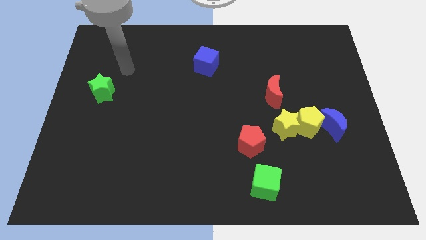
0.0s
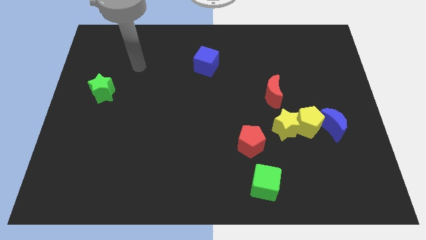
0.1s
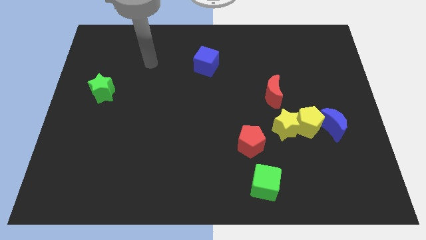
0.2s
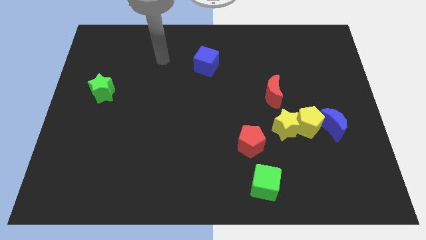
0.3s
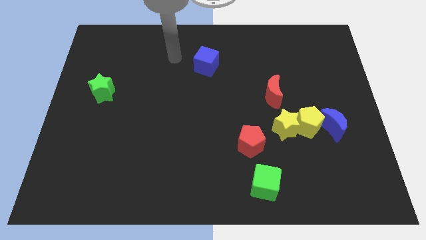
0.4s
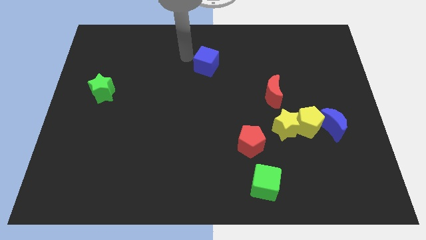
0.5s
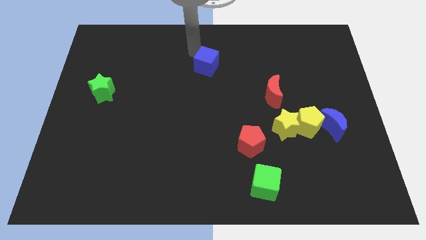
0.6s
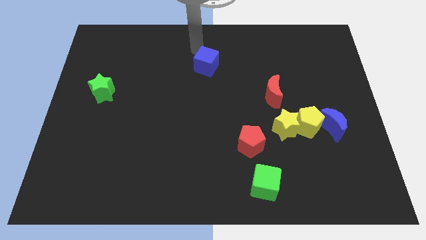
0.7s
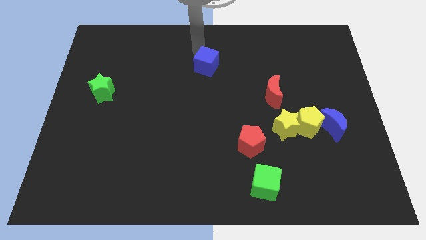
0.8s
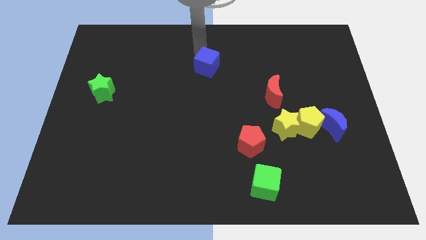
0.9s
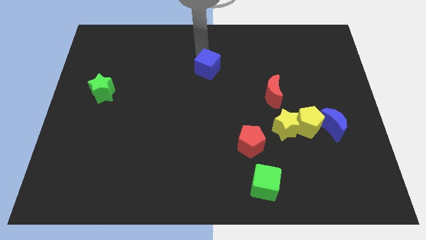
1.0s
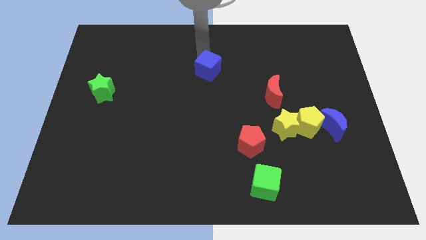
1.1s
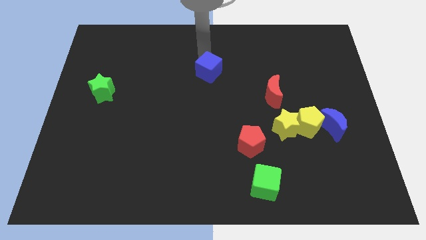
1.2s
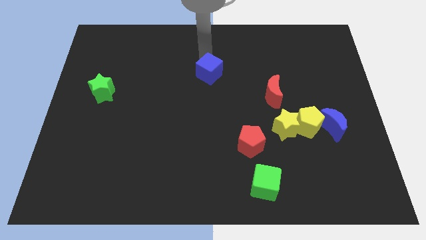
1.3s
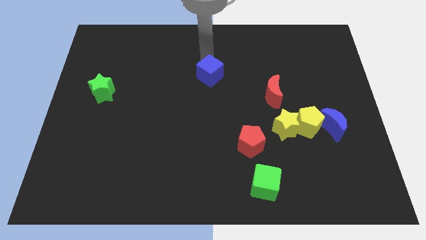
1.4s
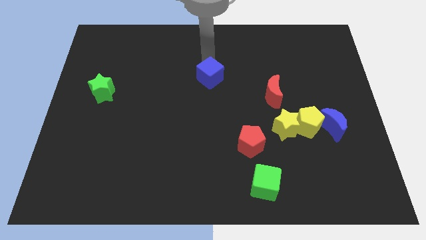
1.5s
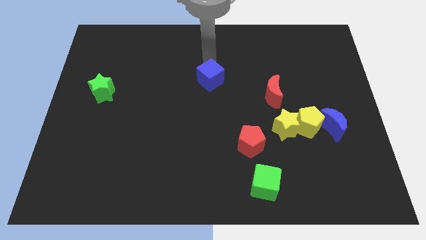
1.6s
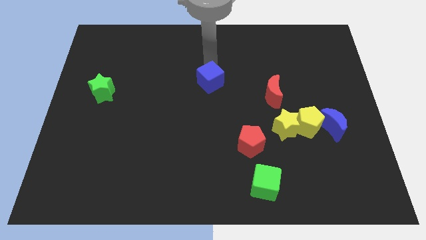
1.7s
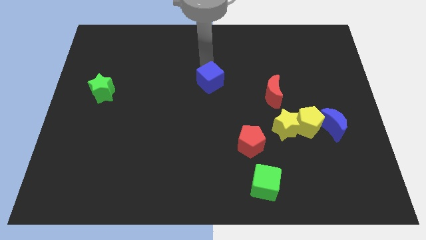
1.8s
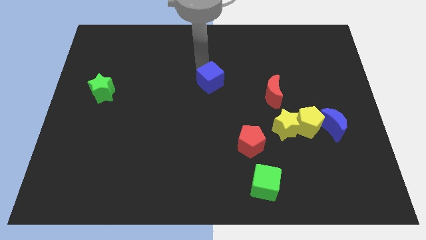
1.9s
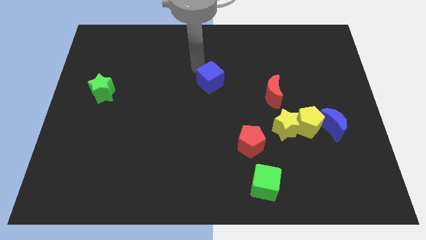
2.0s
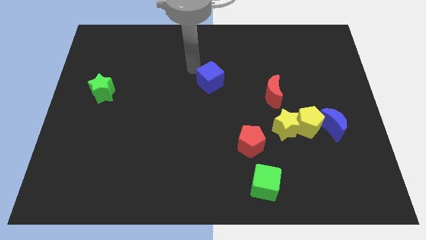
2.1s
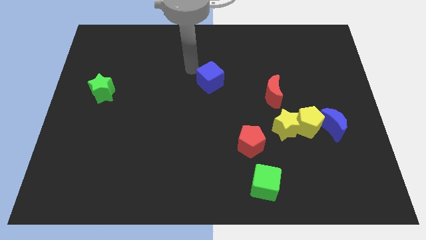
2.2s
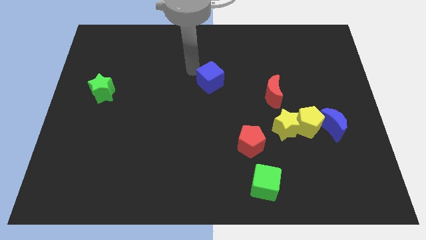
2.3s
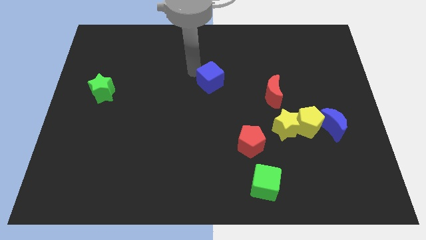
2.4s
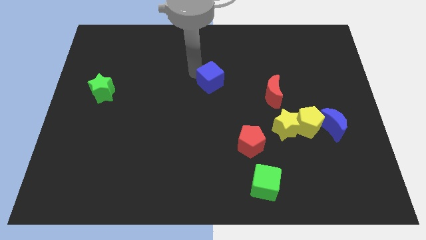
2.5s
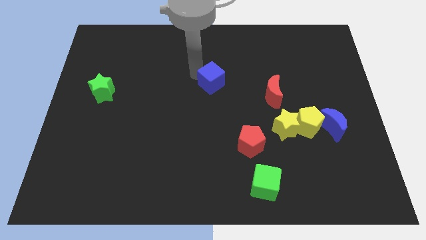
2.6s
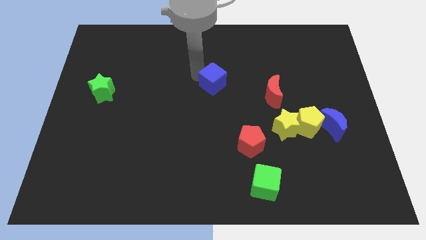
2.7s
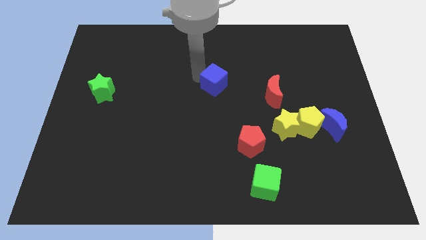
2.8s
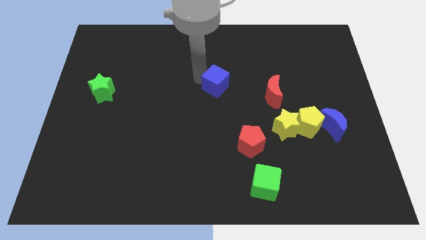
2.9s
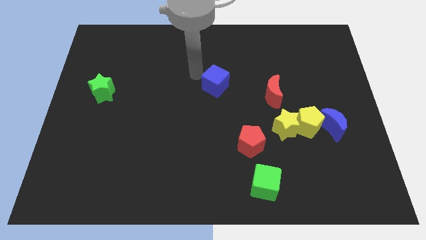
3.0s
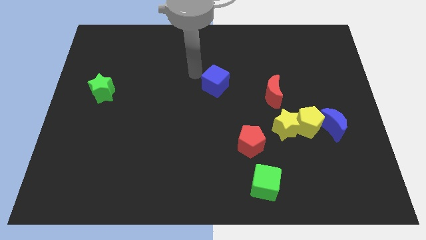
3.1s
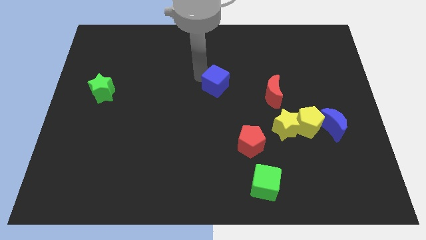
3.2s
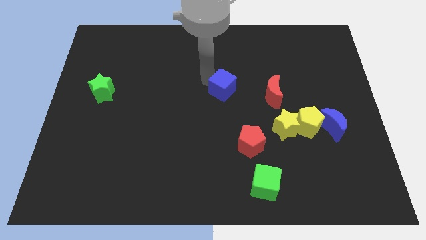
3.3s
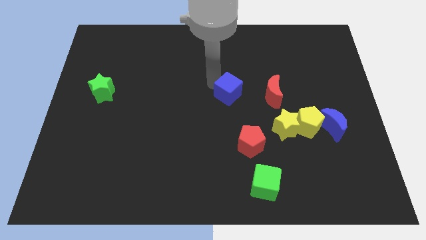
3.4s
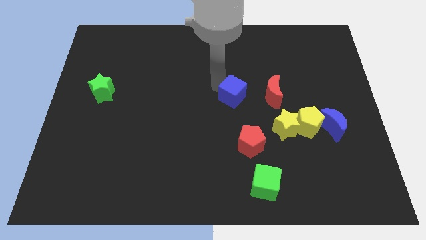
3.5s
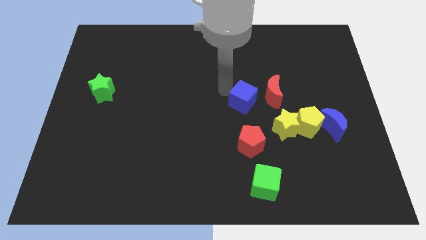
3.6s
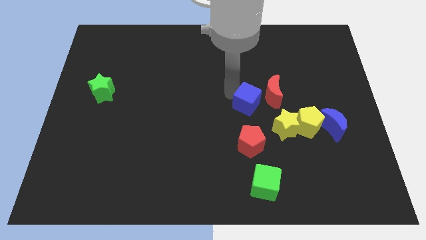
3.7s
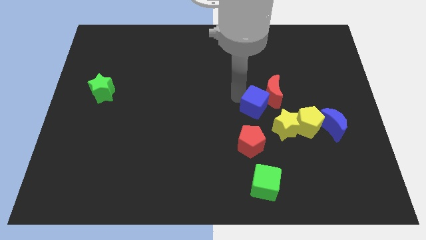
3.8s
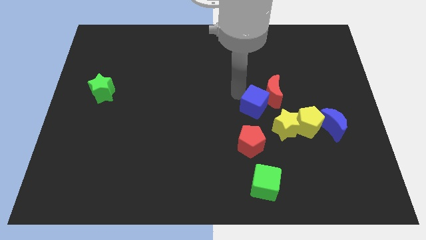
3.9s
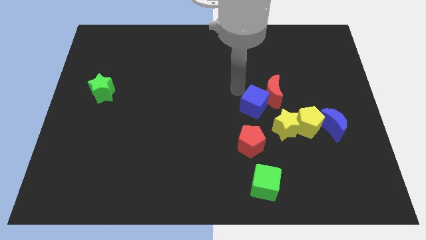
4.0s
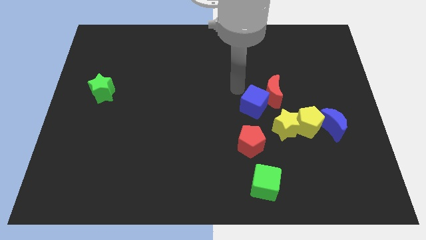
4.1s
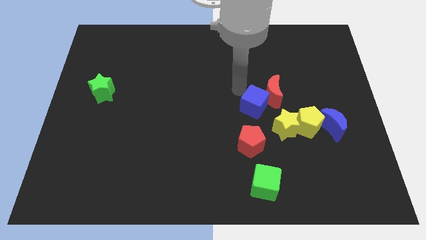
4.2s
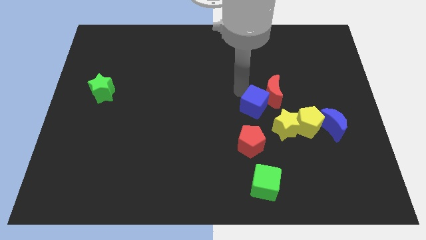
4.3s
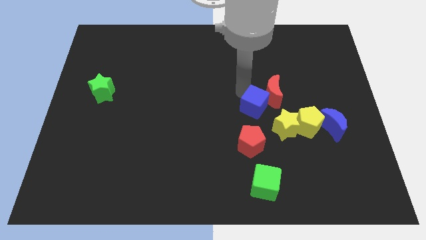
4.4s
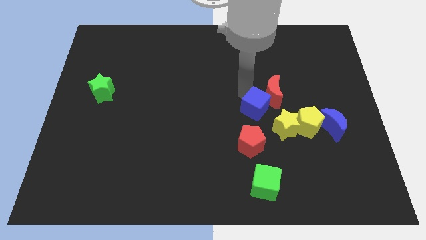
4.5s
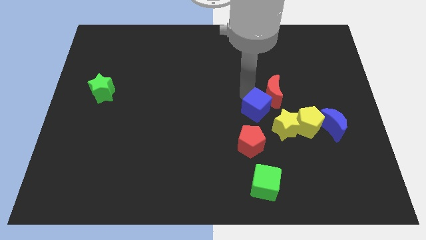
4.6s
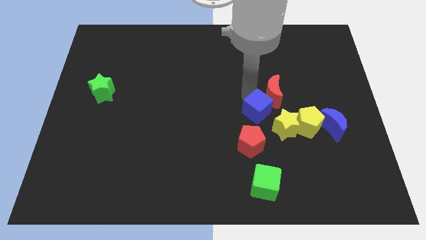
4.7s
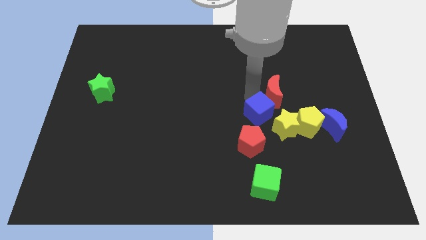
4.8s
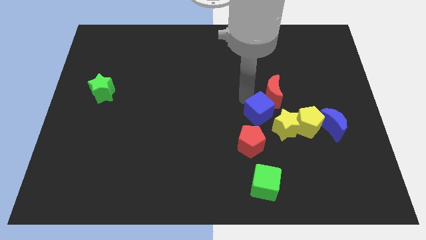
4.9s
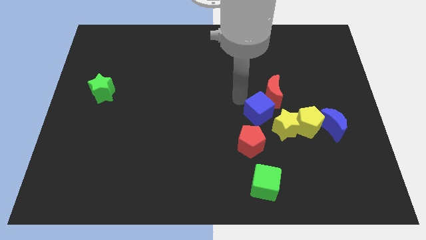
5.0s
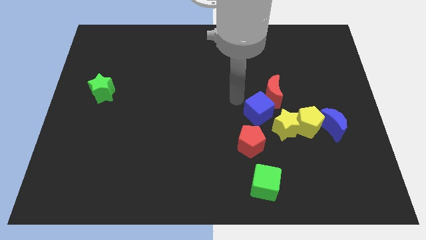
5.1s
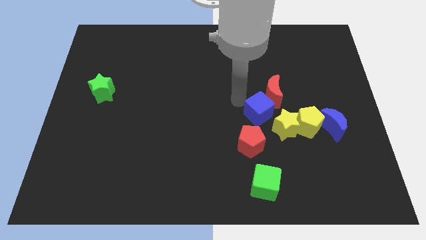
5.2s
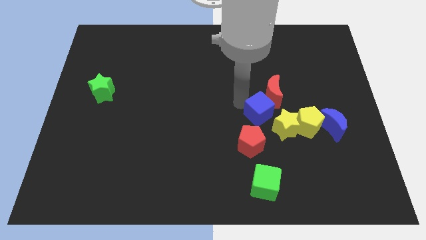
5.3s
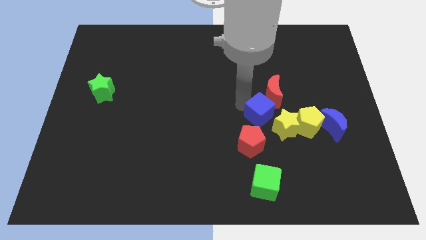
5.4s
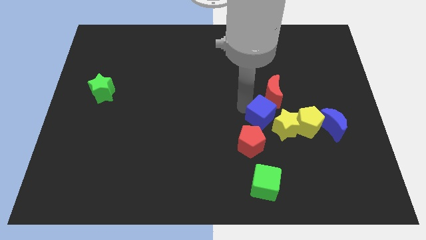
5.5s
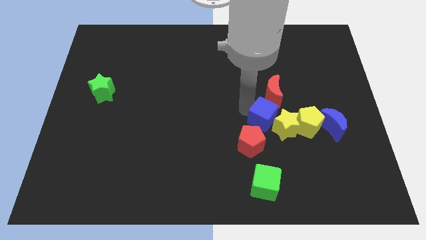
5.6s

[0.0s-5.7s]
push the blue cube close to the yellow star

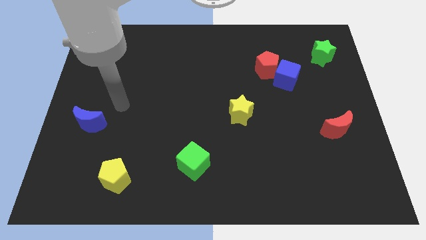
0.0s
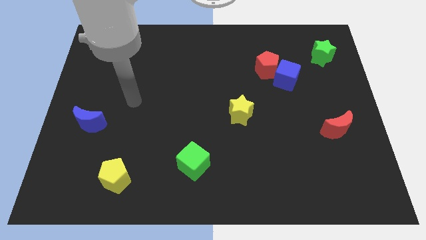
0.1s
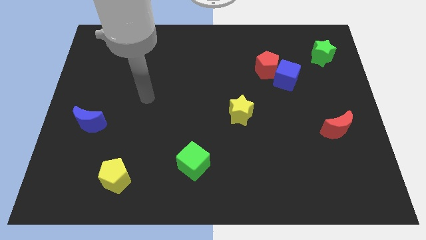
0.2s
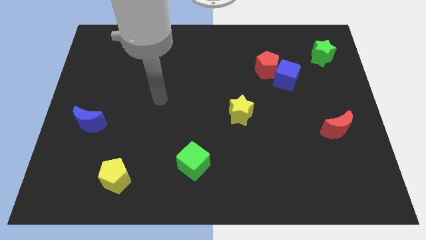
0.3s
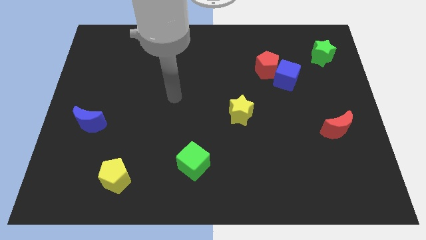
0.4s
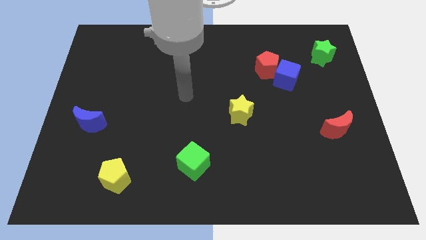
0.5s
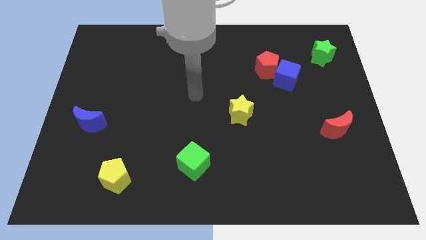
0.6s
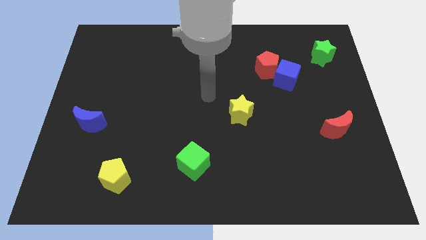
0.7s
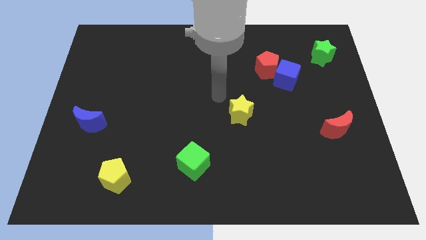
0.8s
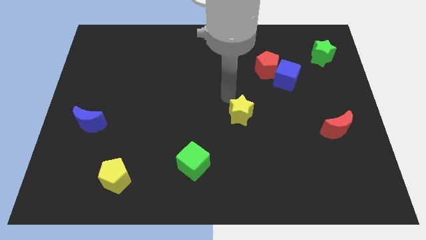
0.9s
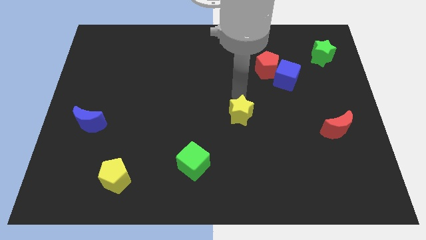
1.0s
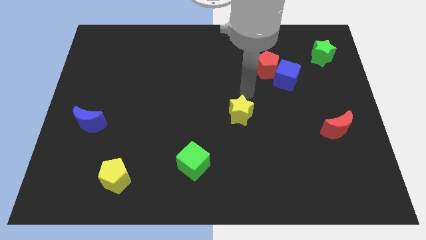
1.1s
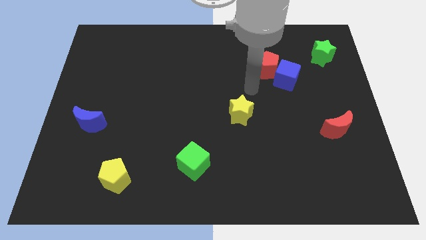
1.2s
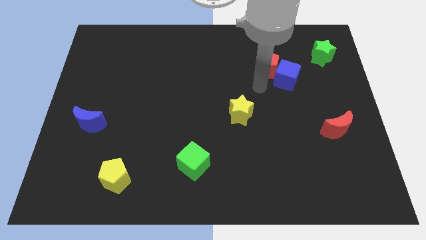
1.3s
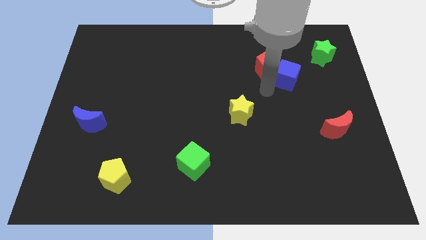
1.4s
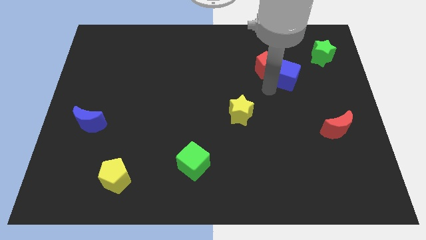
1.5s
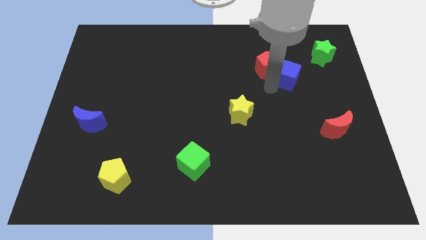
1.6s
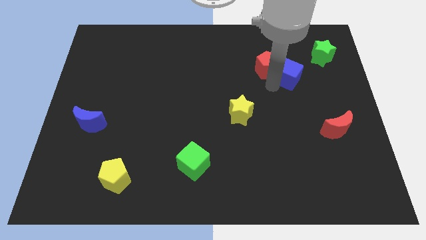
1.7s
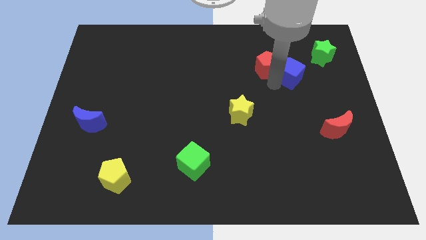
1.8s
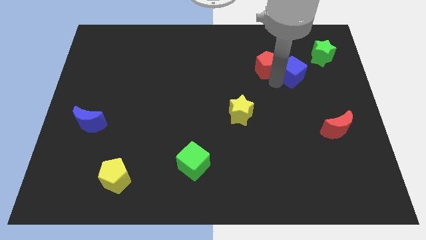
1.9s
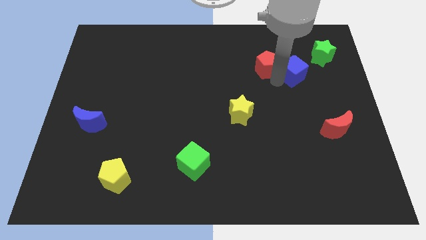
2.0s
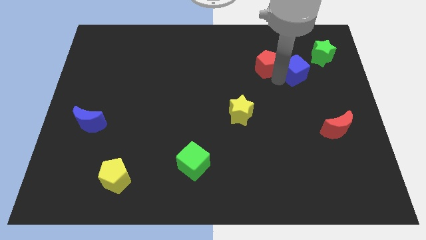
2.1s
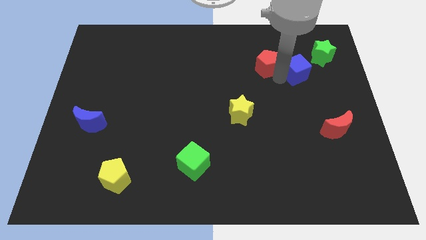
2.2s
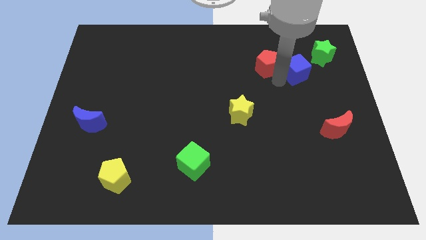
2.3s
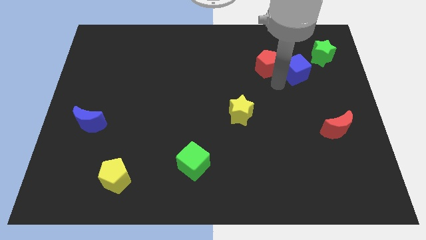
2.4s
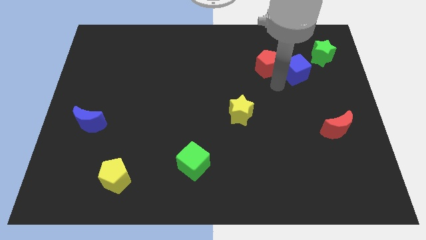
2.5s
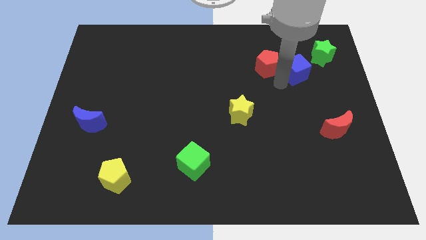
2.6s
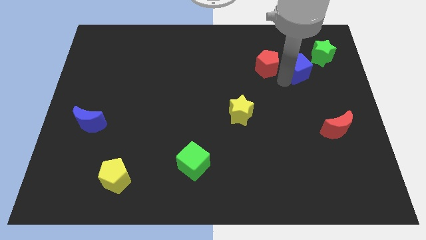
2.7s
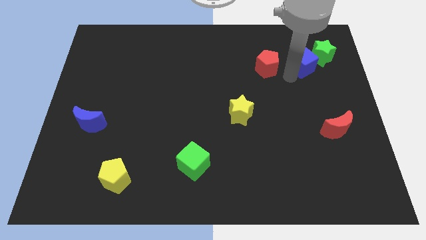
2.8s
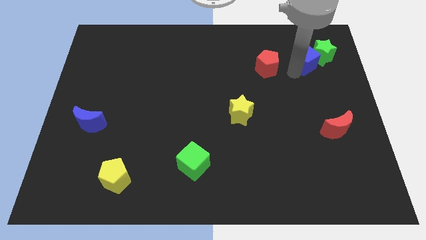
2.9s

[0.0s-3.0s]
slide the blue cube close to the green star

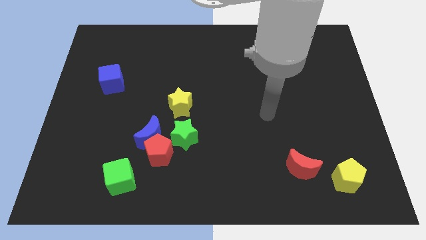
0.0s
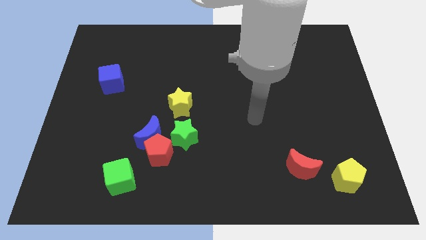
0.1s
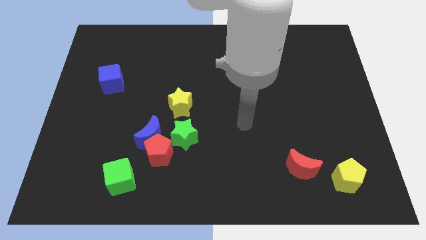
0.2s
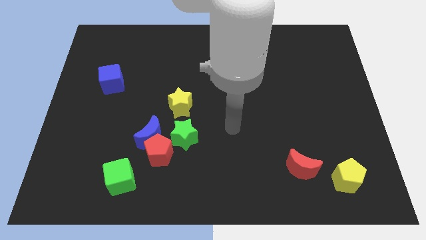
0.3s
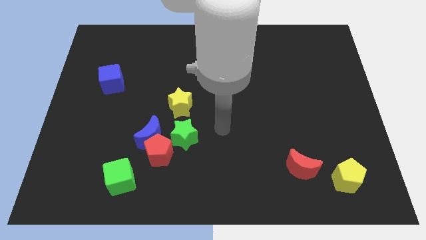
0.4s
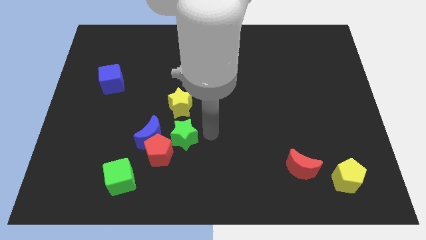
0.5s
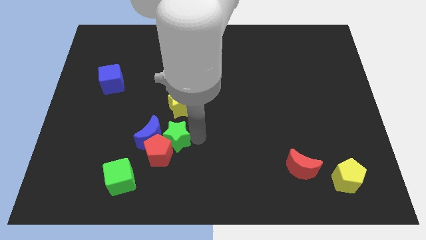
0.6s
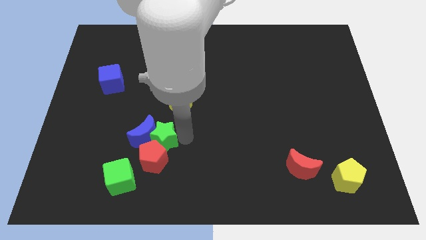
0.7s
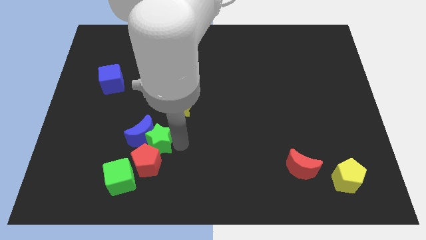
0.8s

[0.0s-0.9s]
put the red pentagon to the green cube
